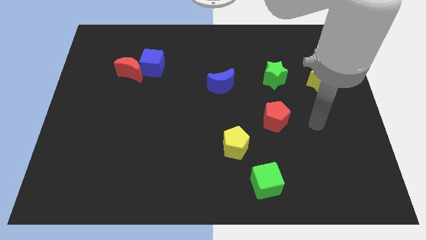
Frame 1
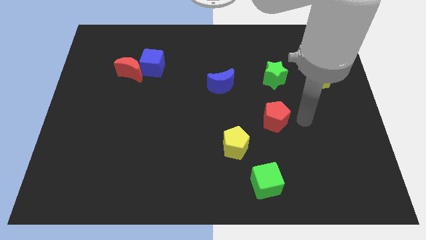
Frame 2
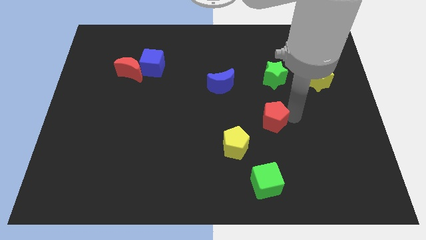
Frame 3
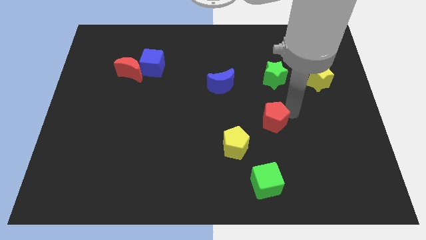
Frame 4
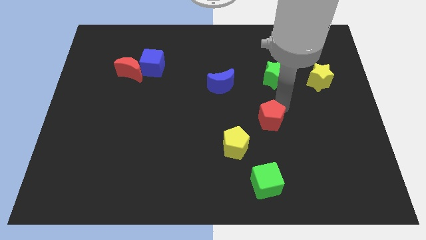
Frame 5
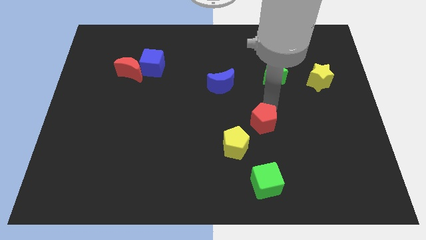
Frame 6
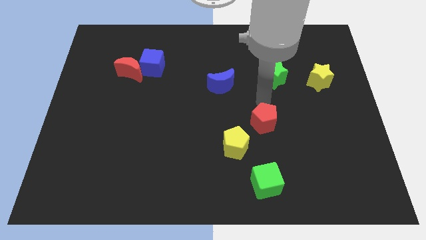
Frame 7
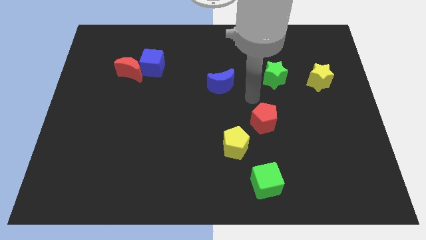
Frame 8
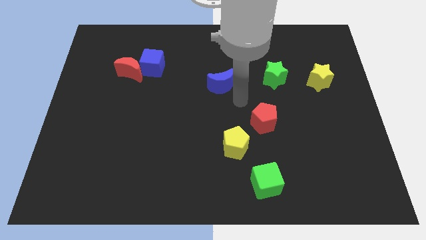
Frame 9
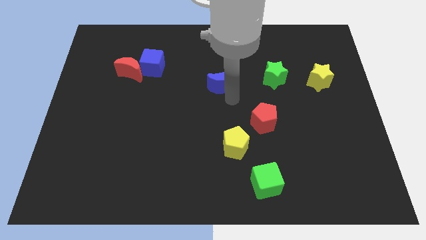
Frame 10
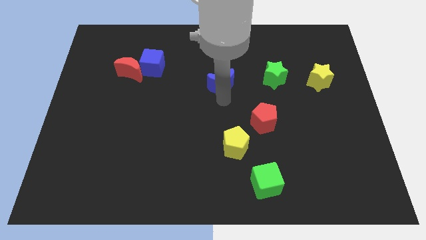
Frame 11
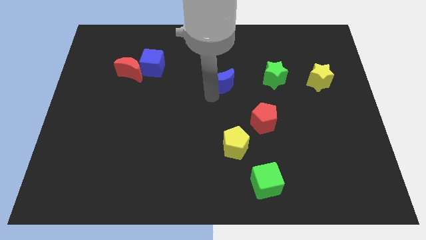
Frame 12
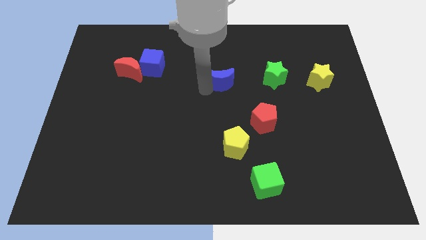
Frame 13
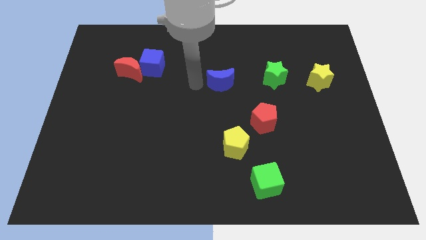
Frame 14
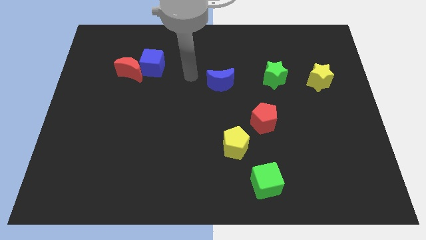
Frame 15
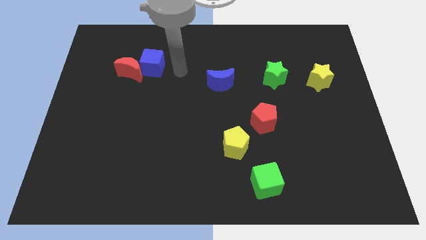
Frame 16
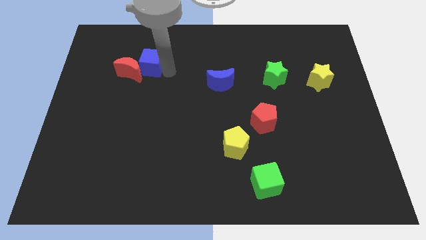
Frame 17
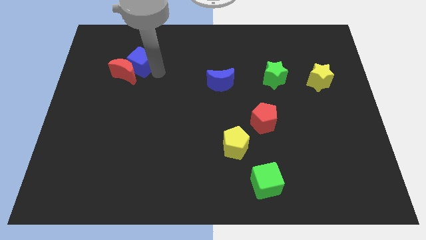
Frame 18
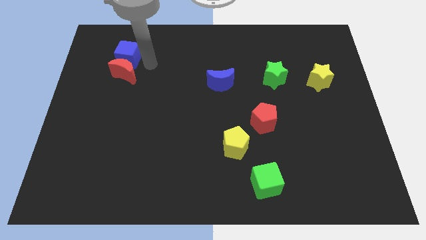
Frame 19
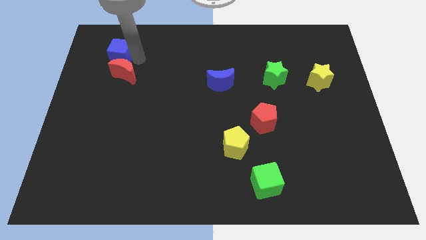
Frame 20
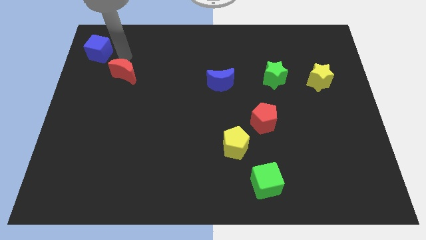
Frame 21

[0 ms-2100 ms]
pull the red moon apart from the blue cube

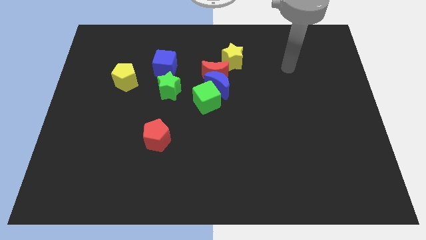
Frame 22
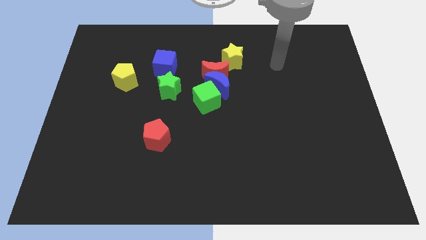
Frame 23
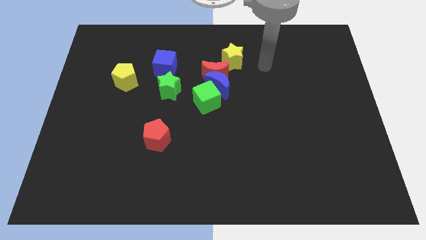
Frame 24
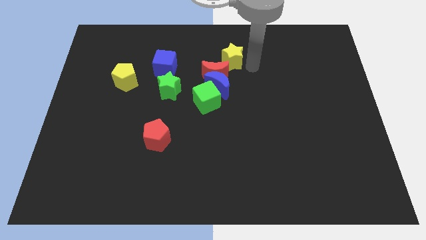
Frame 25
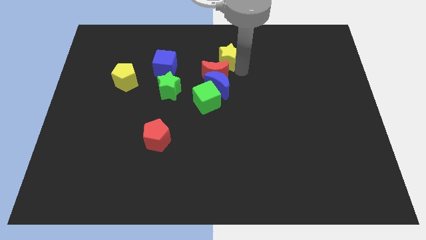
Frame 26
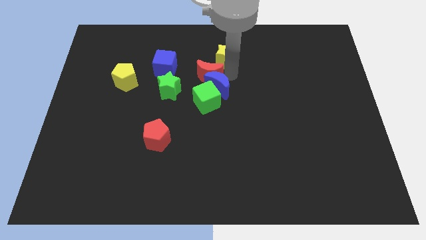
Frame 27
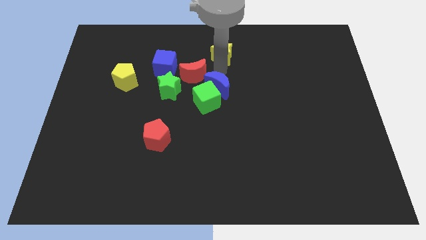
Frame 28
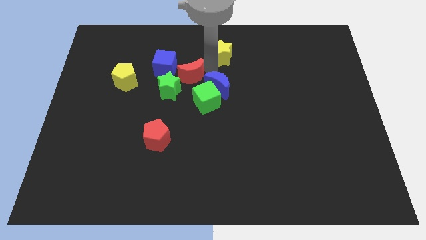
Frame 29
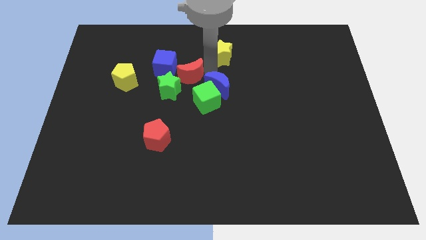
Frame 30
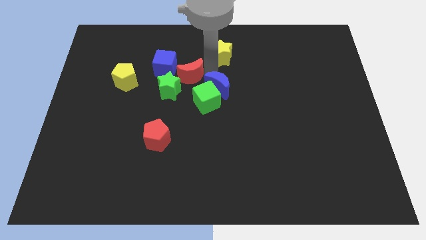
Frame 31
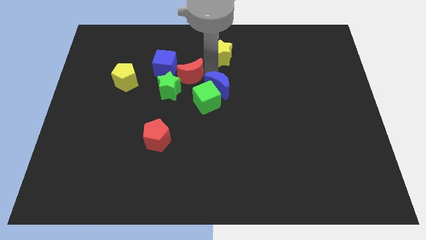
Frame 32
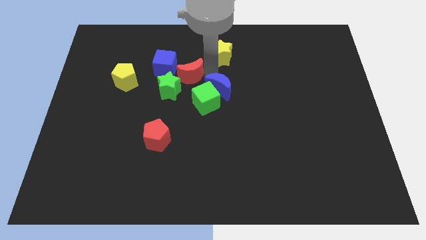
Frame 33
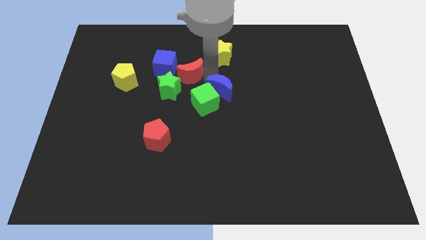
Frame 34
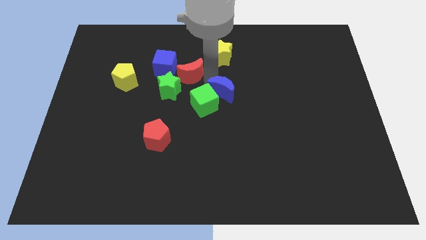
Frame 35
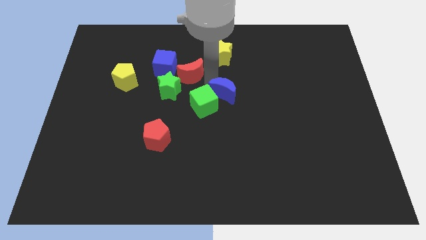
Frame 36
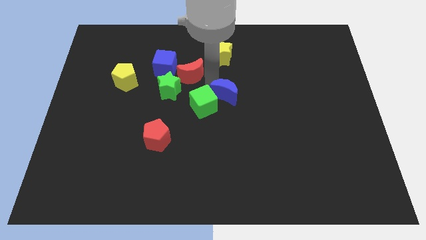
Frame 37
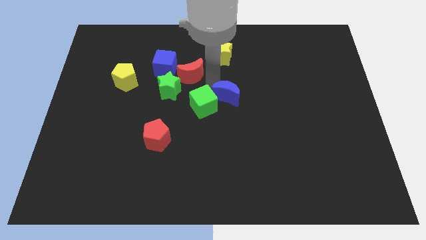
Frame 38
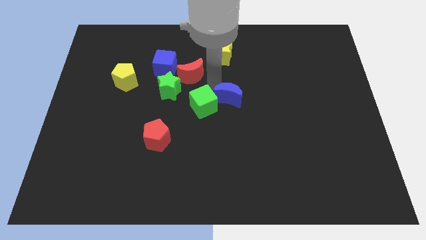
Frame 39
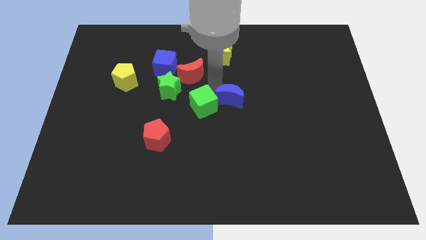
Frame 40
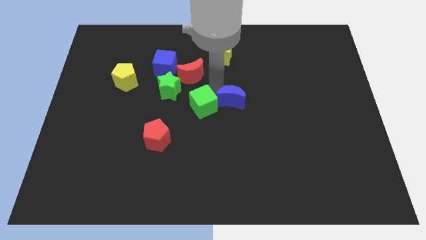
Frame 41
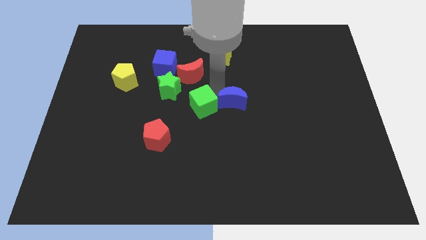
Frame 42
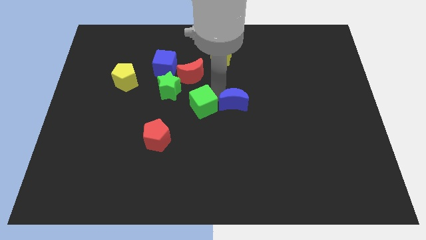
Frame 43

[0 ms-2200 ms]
separate the blue moon from the group of blocks

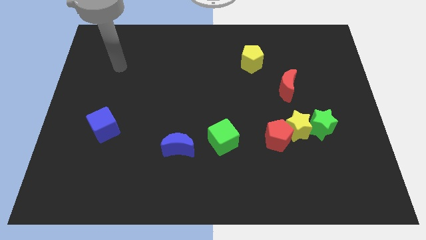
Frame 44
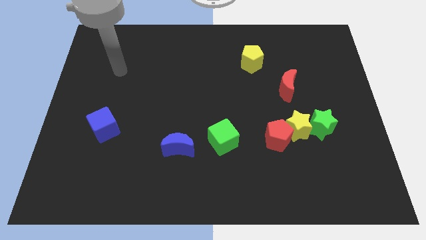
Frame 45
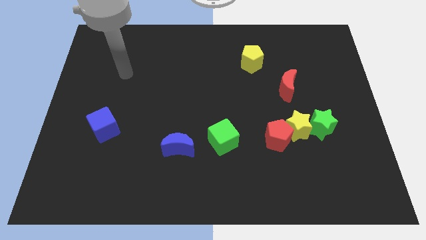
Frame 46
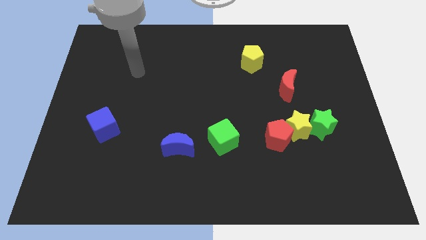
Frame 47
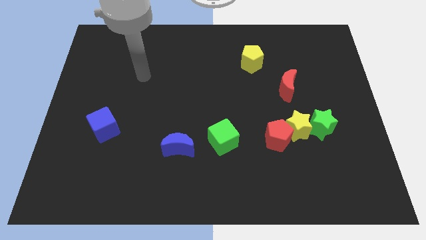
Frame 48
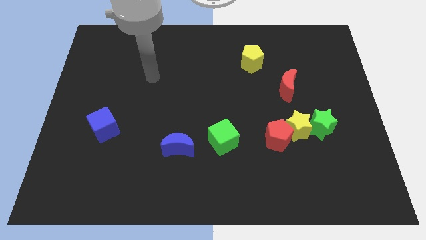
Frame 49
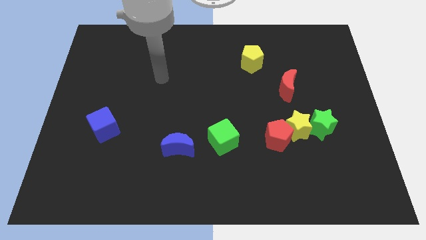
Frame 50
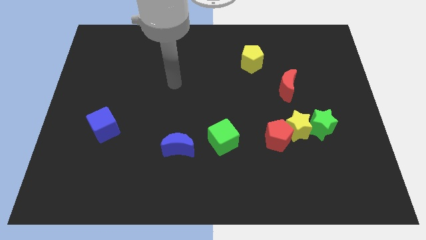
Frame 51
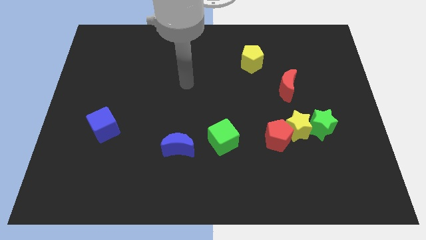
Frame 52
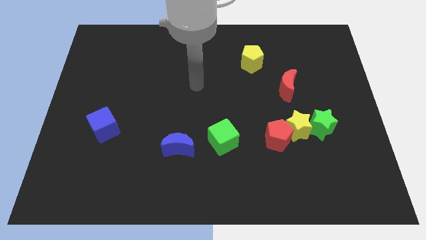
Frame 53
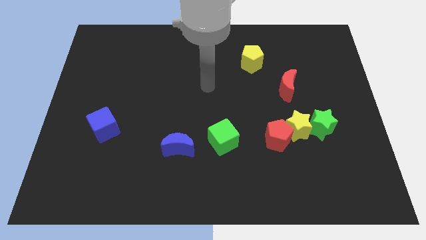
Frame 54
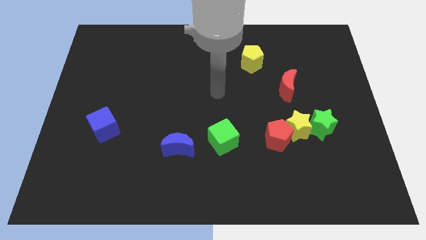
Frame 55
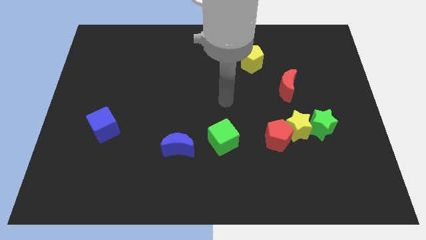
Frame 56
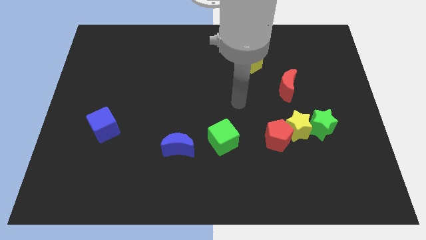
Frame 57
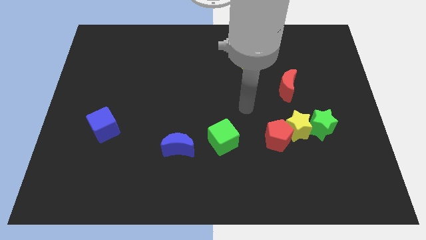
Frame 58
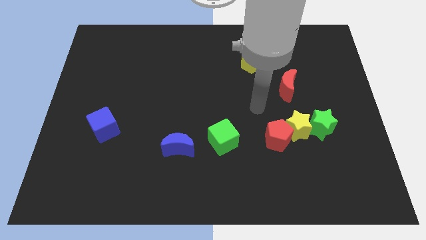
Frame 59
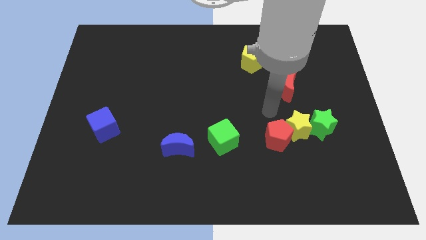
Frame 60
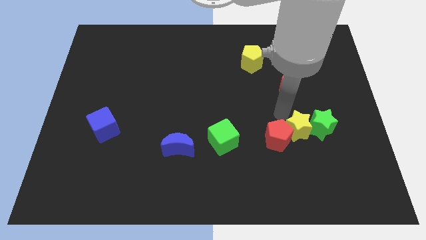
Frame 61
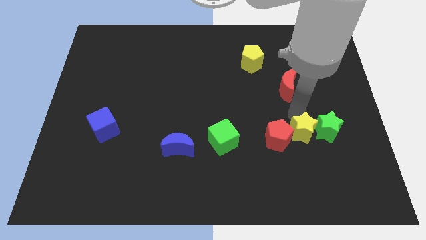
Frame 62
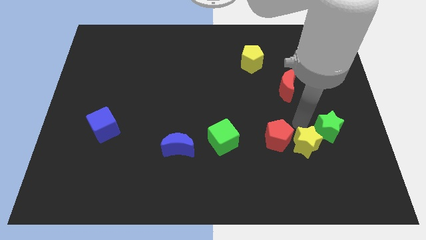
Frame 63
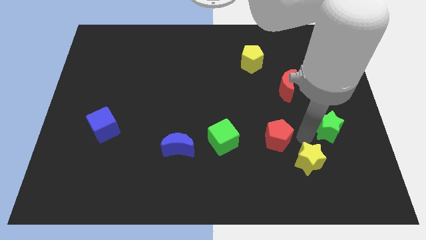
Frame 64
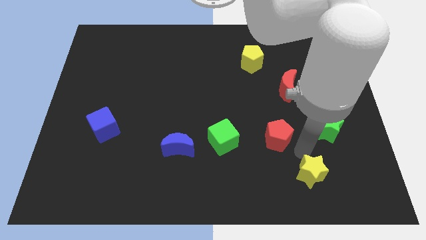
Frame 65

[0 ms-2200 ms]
pull the red pentagon apart from the yellow star

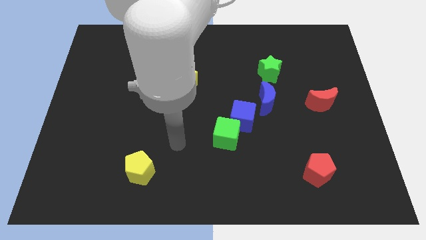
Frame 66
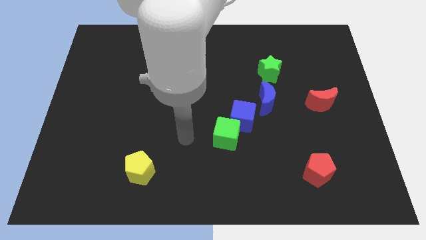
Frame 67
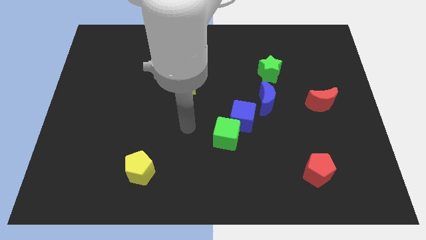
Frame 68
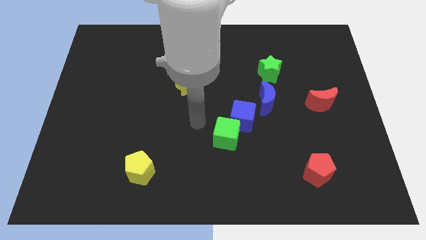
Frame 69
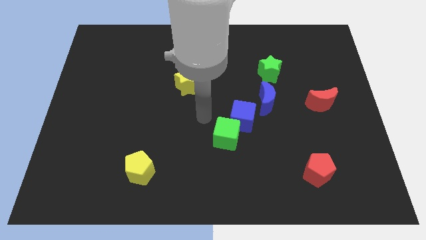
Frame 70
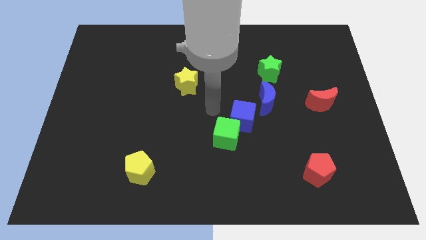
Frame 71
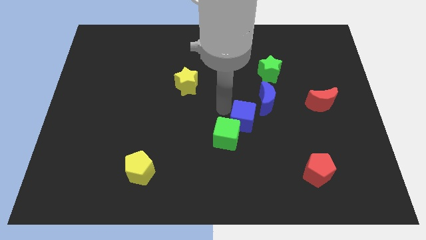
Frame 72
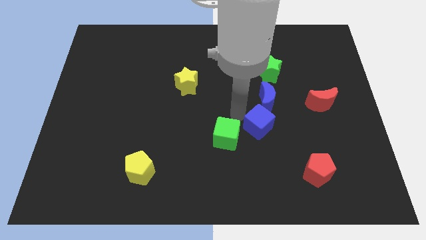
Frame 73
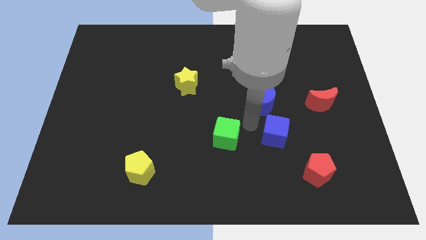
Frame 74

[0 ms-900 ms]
move the green cube away from the blue cube

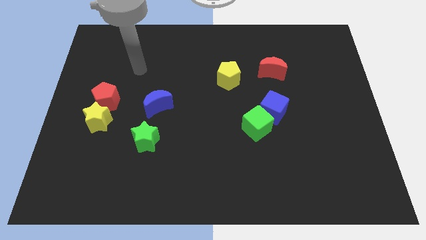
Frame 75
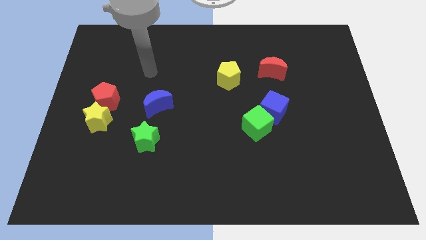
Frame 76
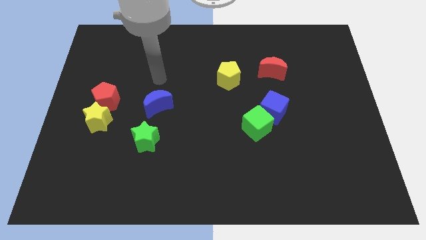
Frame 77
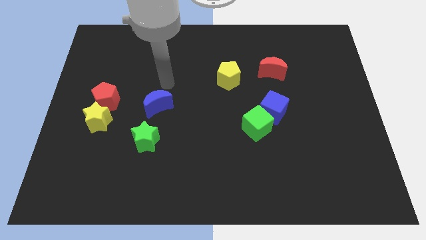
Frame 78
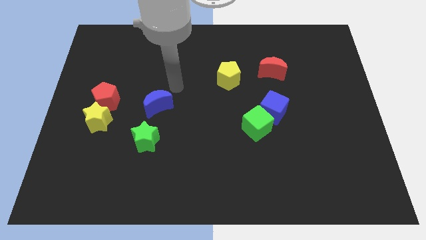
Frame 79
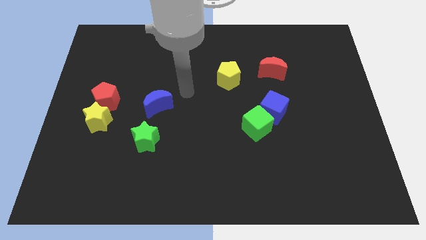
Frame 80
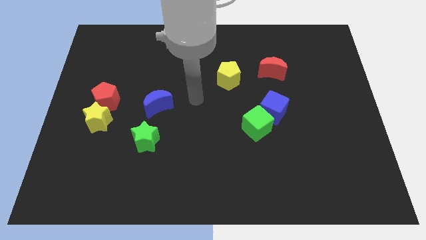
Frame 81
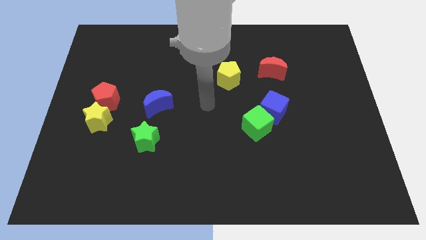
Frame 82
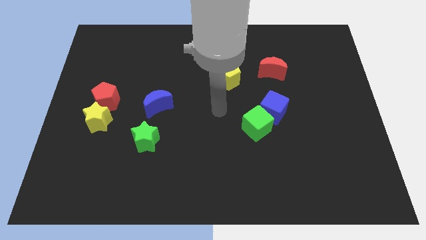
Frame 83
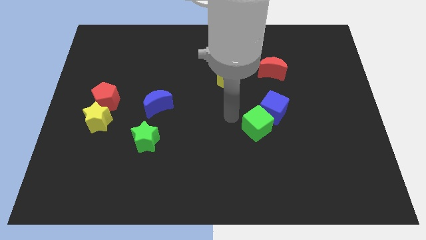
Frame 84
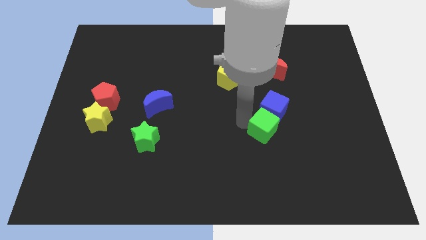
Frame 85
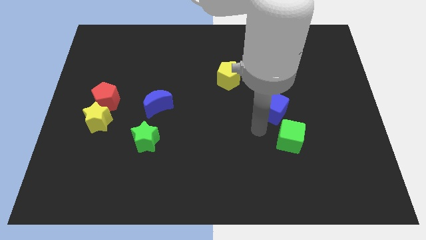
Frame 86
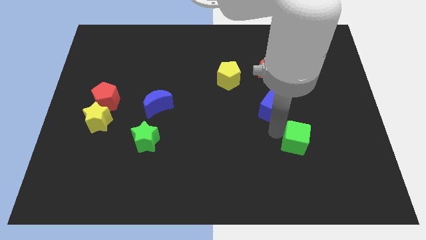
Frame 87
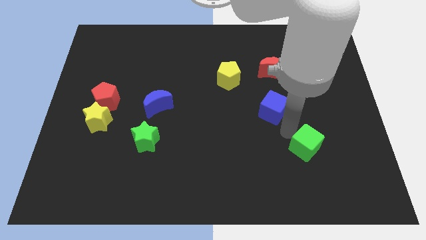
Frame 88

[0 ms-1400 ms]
pull the blue cube apart from the green cube

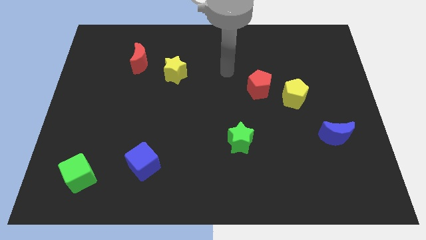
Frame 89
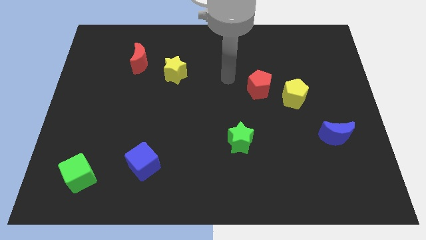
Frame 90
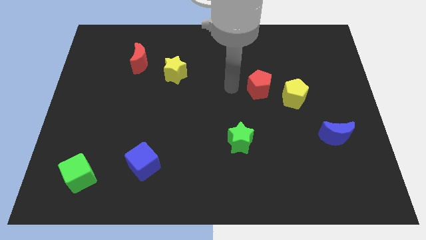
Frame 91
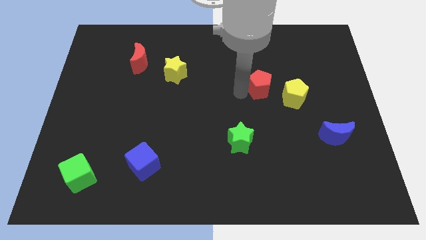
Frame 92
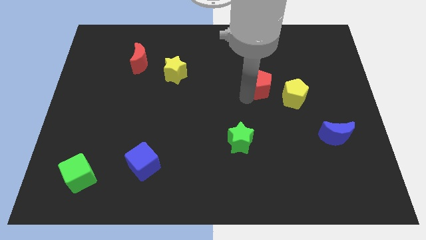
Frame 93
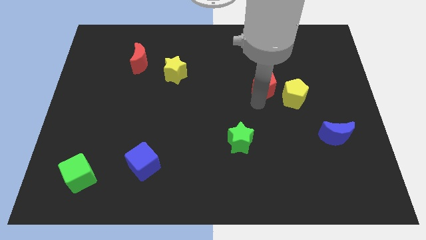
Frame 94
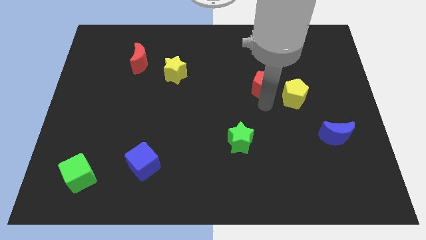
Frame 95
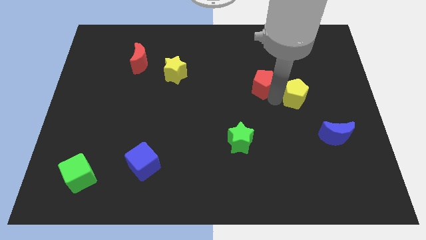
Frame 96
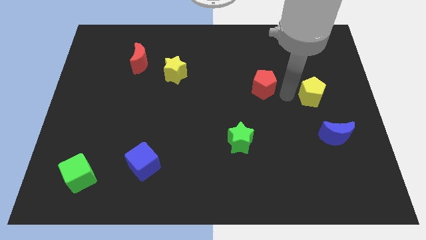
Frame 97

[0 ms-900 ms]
pull the red pentagon apart from the yellow pentagon
